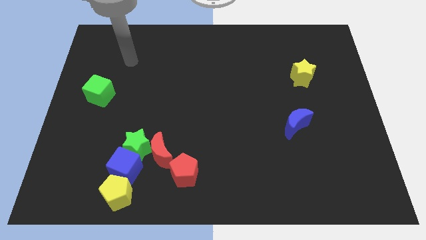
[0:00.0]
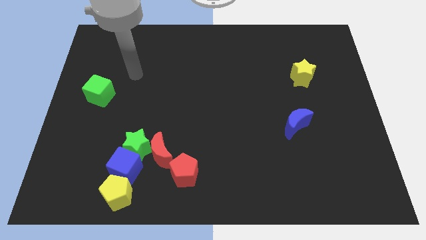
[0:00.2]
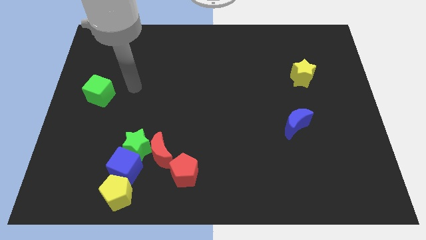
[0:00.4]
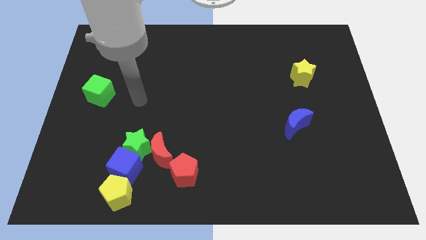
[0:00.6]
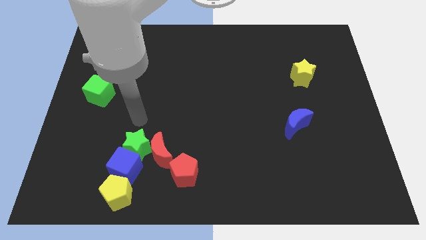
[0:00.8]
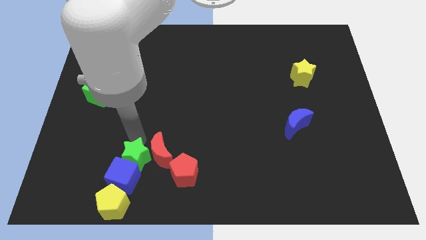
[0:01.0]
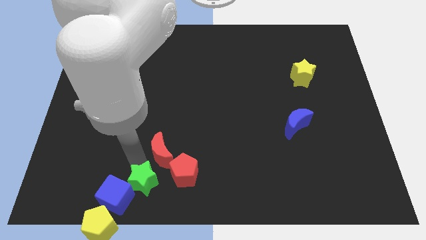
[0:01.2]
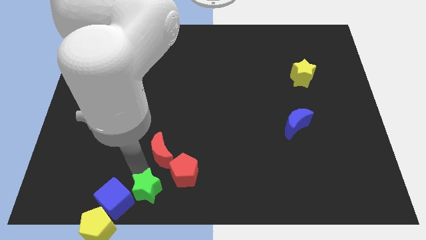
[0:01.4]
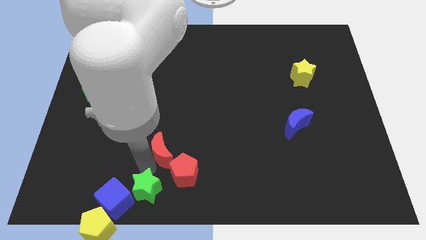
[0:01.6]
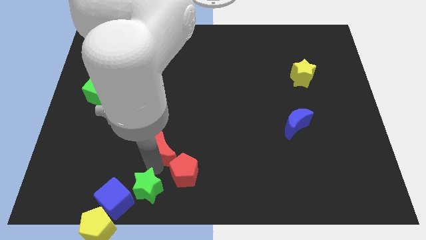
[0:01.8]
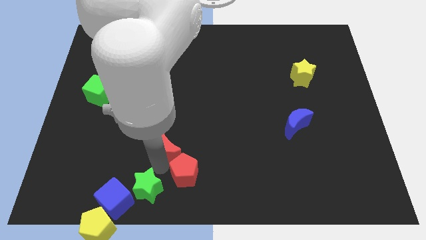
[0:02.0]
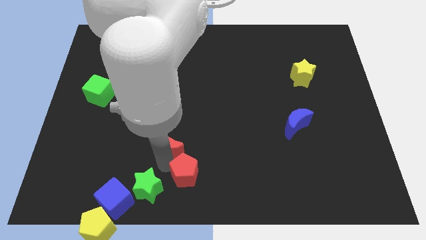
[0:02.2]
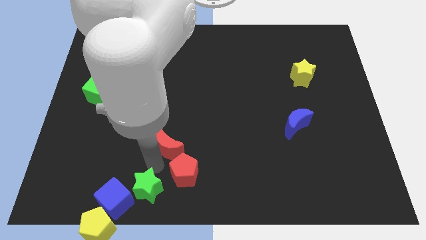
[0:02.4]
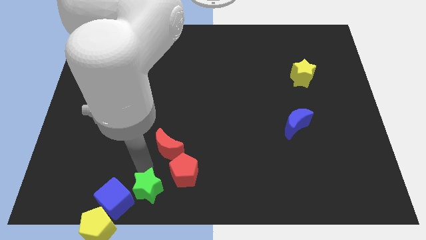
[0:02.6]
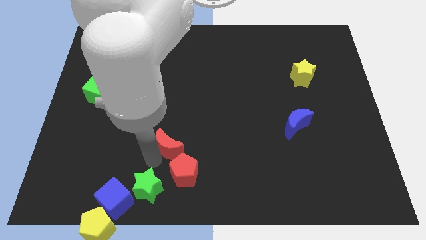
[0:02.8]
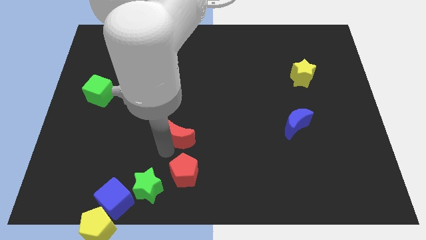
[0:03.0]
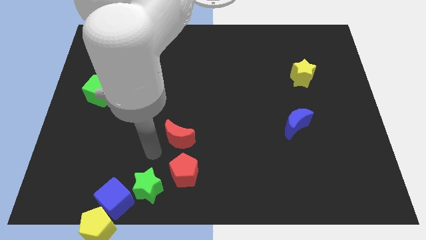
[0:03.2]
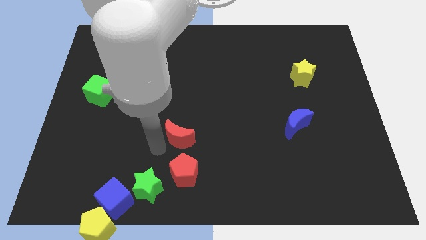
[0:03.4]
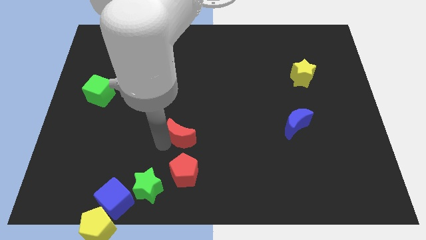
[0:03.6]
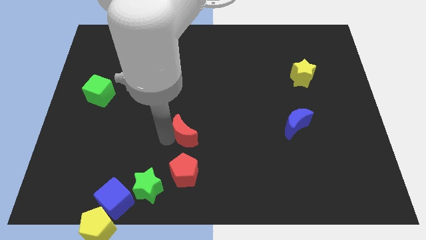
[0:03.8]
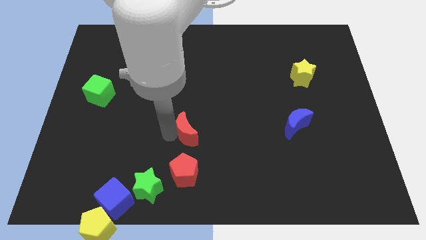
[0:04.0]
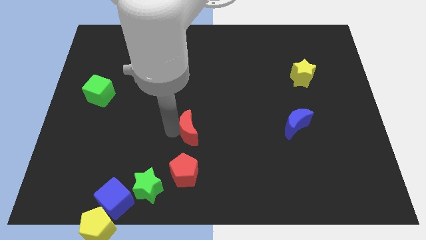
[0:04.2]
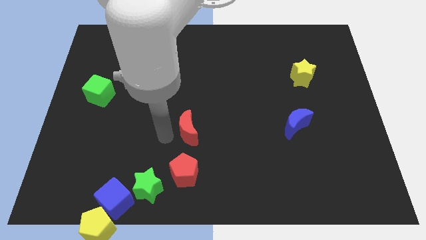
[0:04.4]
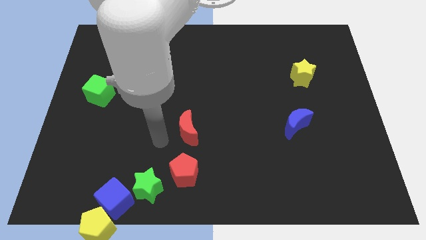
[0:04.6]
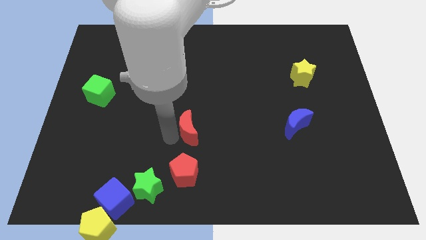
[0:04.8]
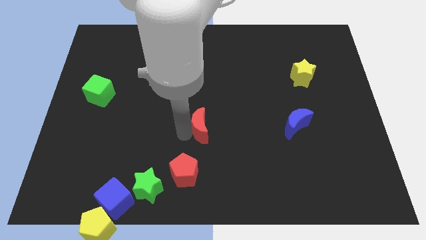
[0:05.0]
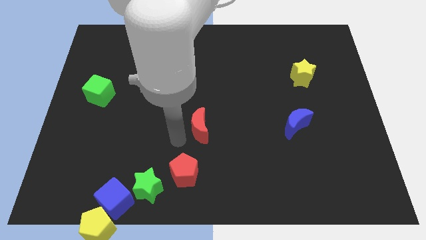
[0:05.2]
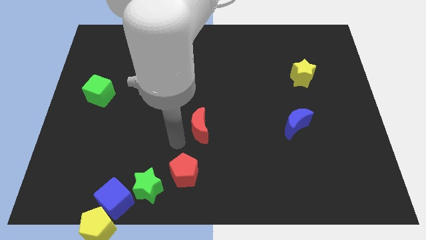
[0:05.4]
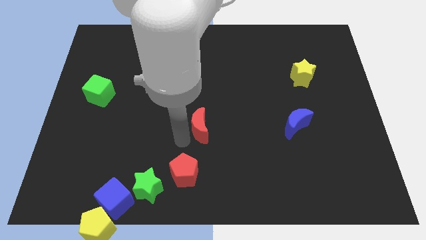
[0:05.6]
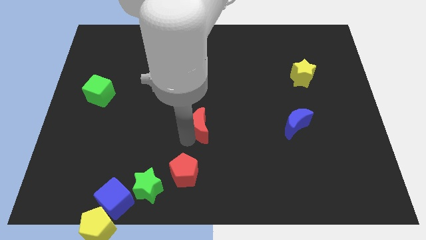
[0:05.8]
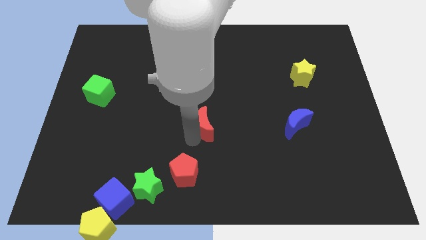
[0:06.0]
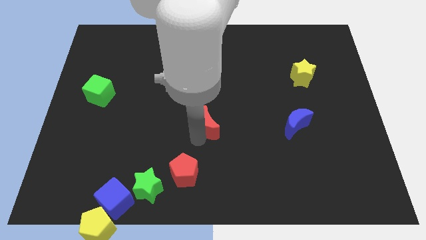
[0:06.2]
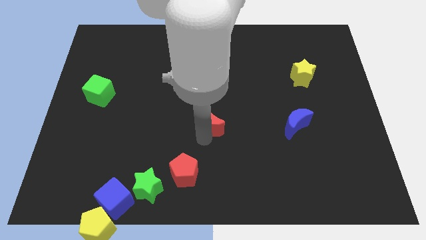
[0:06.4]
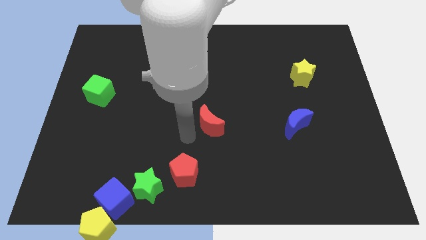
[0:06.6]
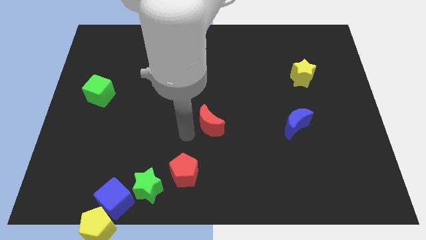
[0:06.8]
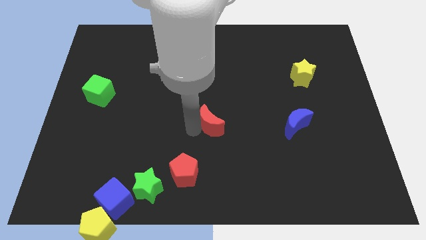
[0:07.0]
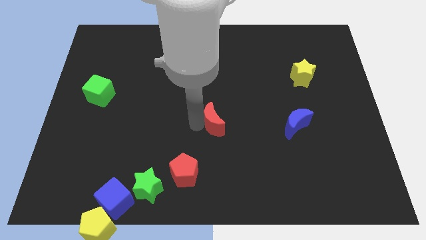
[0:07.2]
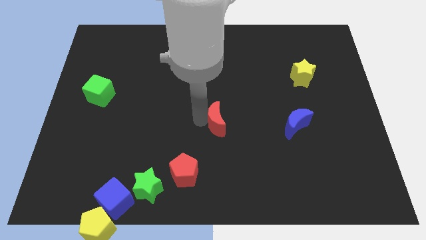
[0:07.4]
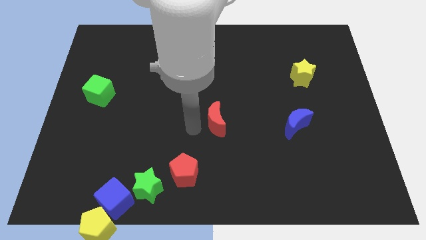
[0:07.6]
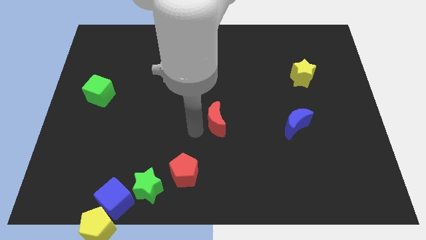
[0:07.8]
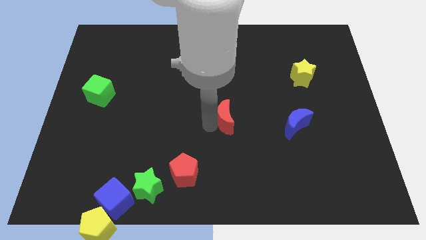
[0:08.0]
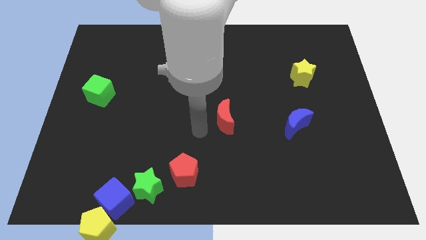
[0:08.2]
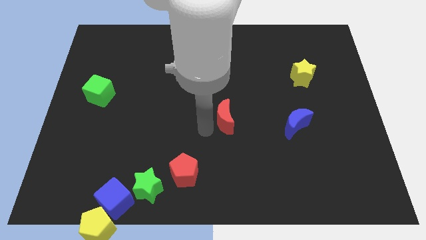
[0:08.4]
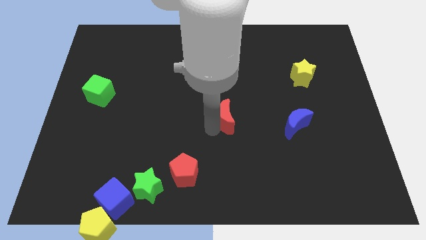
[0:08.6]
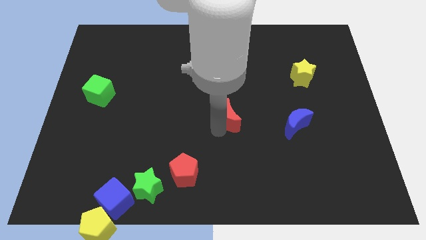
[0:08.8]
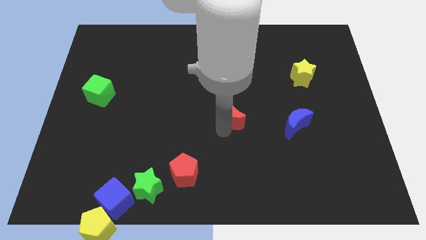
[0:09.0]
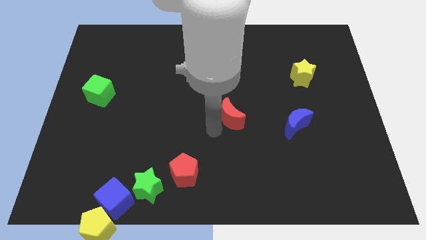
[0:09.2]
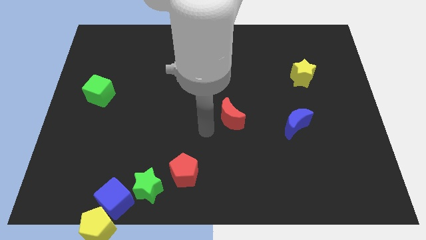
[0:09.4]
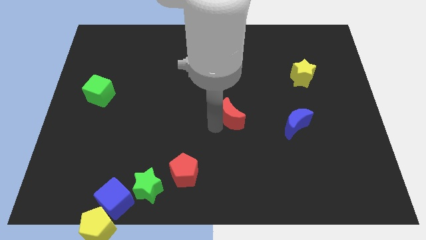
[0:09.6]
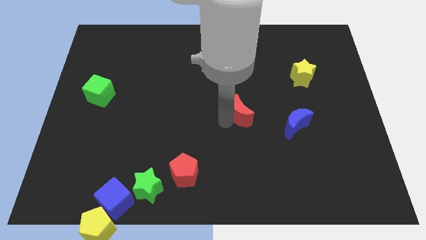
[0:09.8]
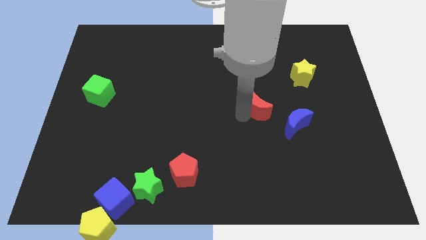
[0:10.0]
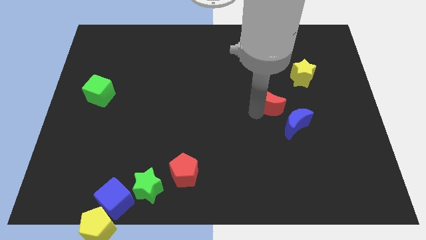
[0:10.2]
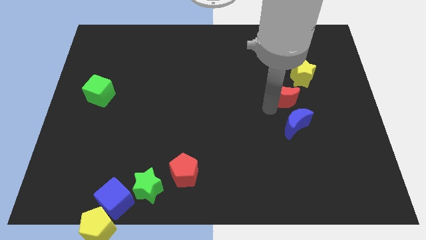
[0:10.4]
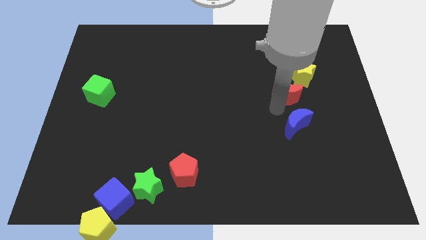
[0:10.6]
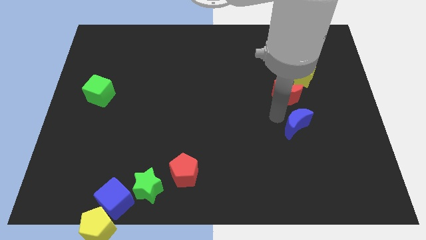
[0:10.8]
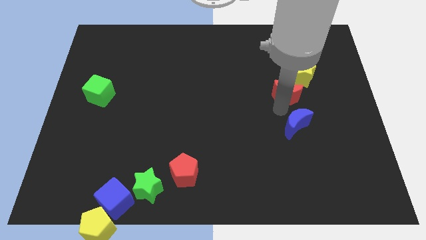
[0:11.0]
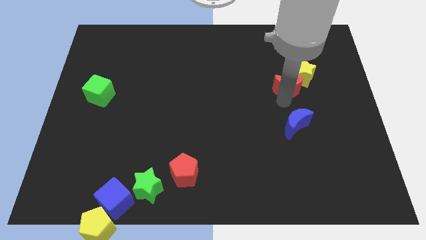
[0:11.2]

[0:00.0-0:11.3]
slide the red moon close to the yellow star

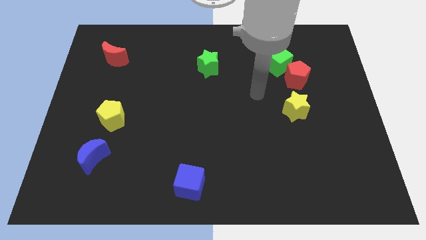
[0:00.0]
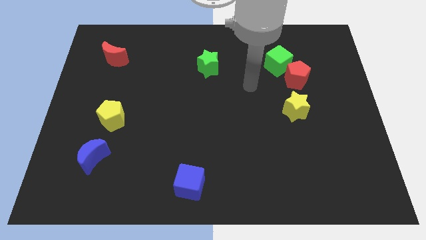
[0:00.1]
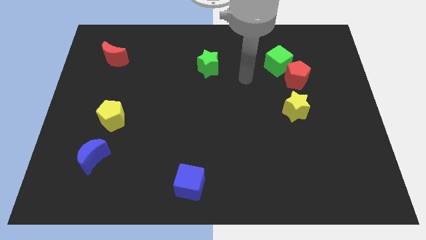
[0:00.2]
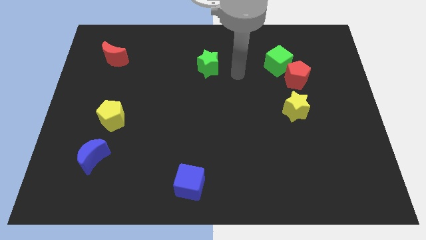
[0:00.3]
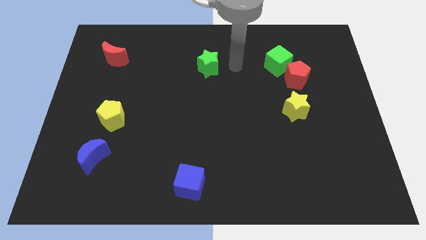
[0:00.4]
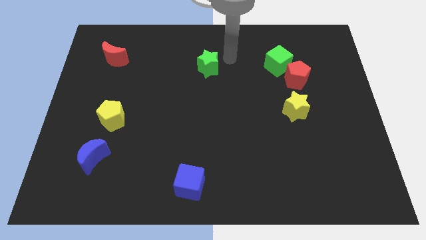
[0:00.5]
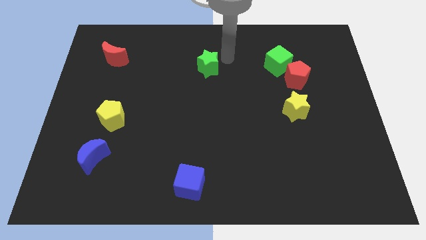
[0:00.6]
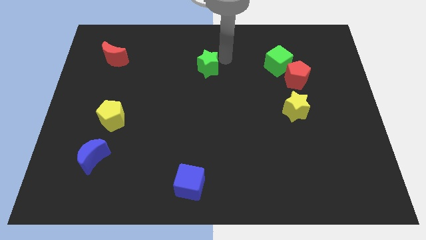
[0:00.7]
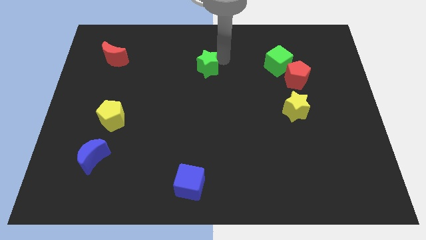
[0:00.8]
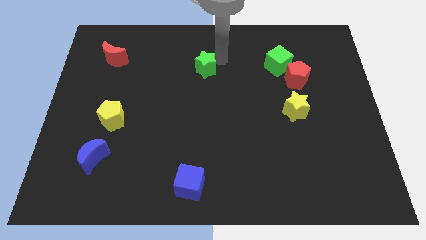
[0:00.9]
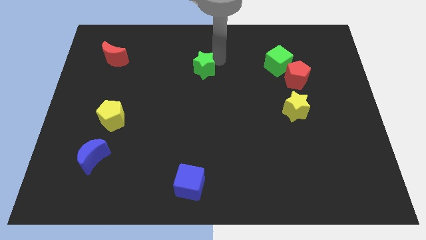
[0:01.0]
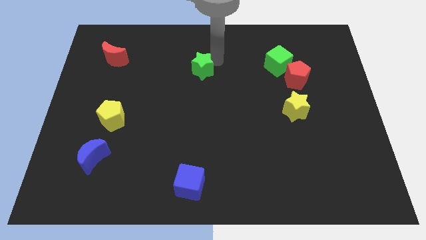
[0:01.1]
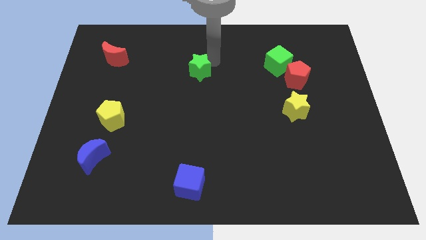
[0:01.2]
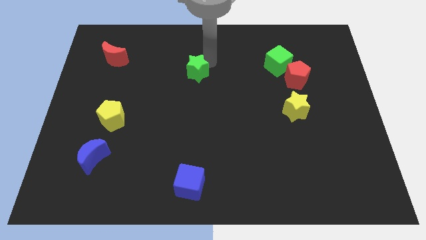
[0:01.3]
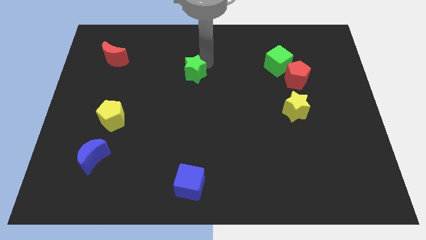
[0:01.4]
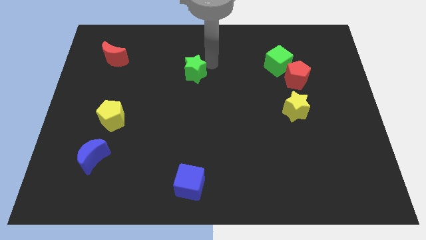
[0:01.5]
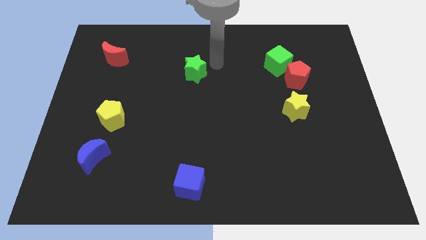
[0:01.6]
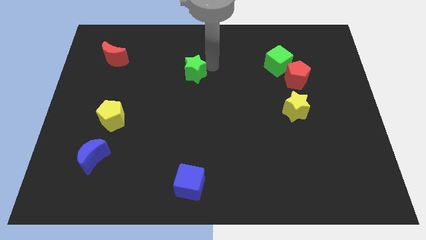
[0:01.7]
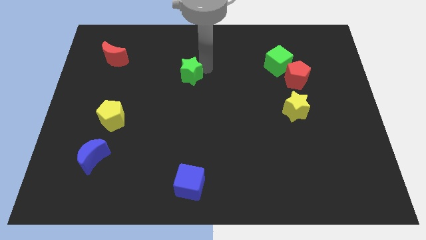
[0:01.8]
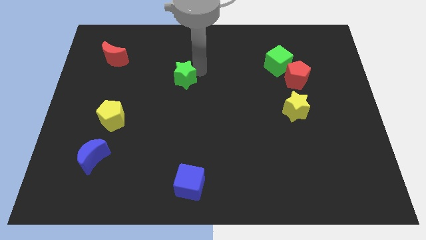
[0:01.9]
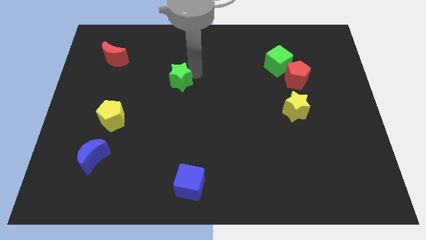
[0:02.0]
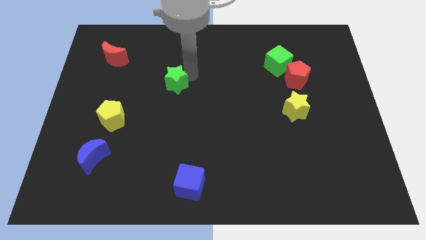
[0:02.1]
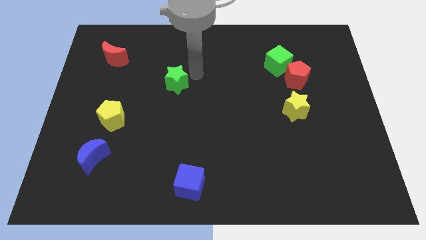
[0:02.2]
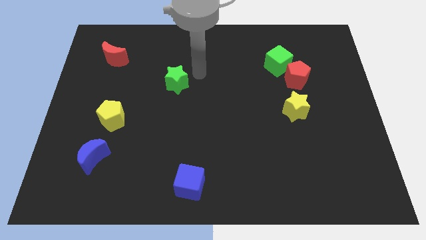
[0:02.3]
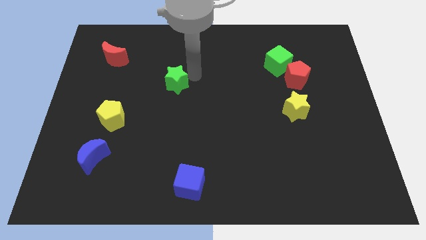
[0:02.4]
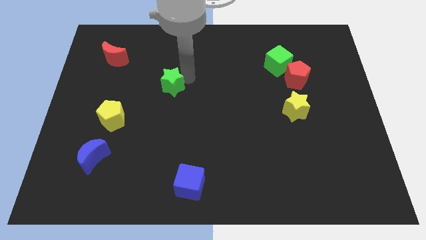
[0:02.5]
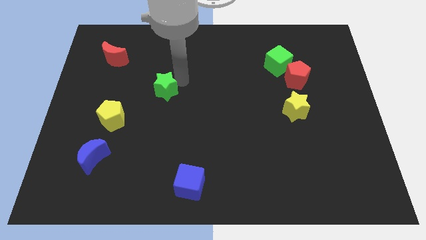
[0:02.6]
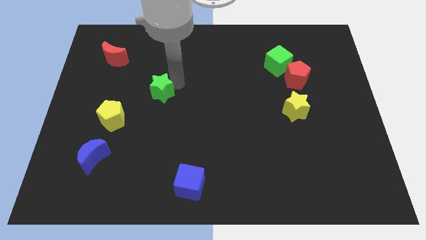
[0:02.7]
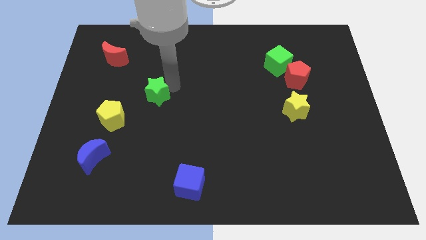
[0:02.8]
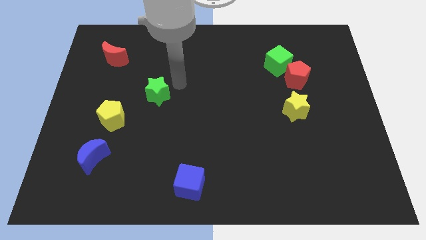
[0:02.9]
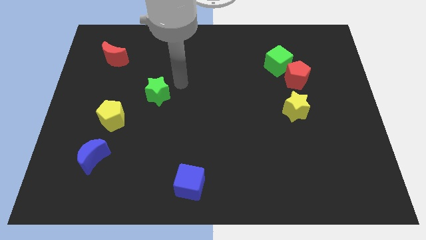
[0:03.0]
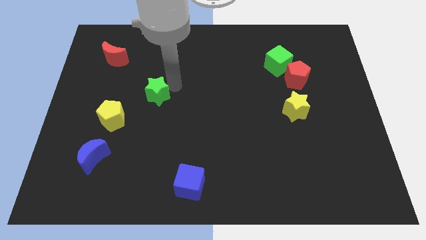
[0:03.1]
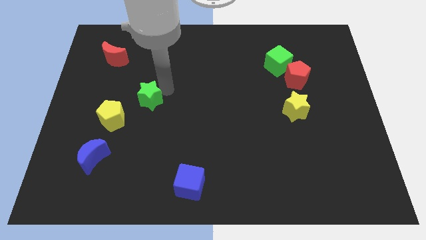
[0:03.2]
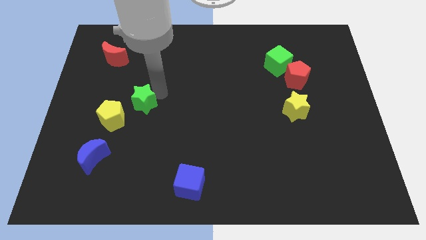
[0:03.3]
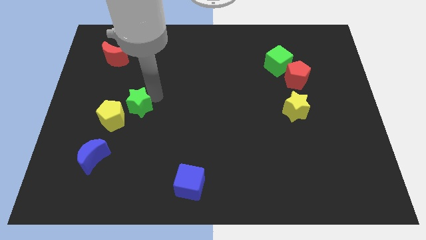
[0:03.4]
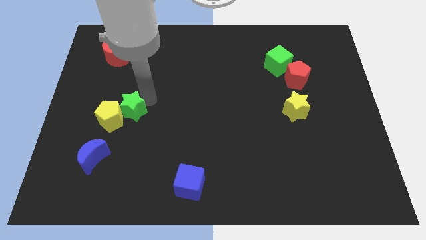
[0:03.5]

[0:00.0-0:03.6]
put the green star close to the yellow pentagon
